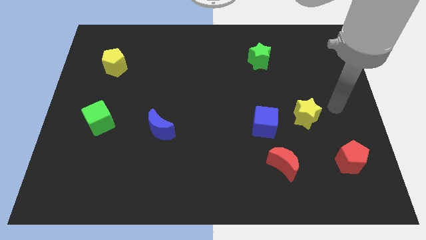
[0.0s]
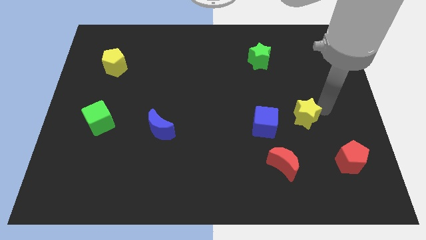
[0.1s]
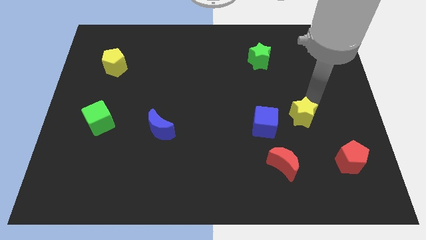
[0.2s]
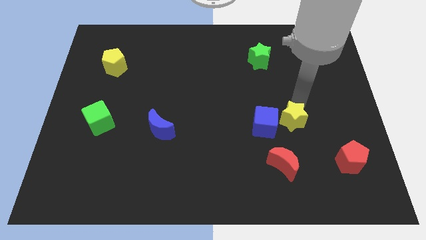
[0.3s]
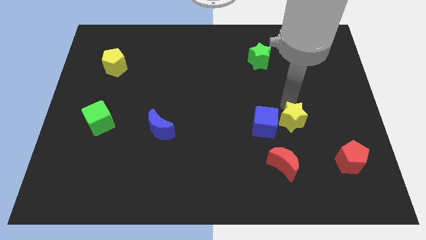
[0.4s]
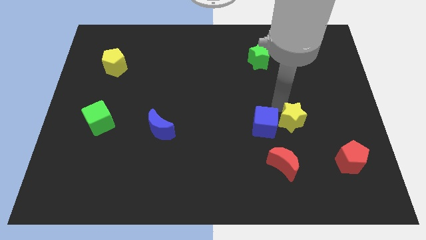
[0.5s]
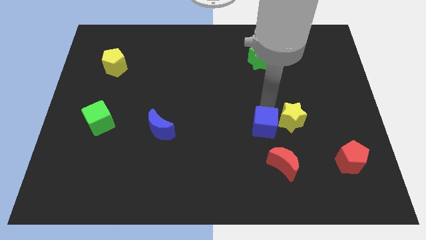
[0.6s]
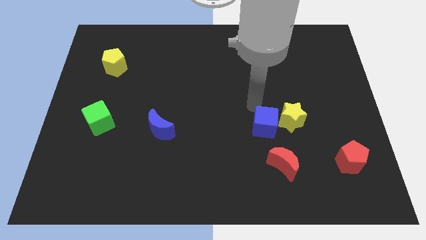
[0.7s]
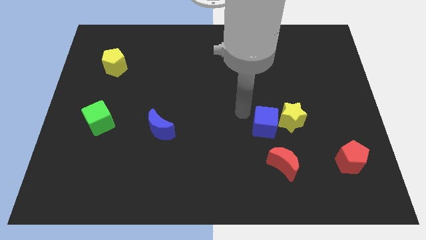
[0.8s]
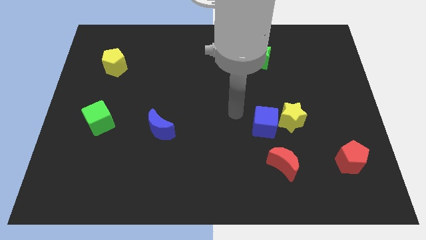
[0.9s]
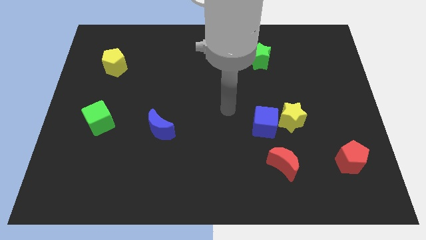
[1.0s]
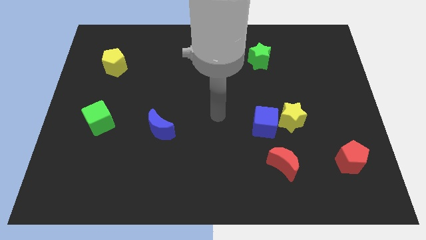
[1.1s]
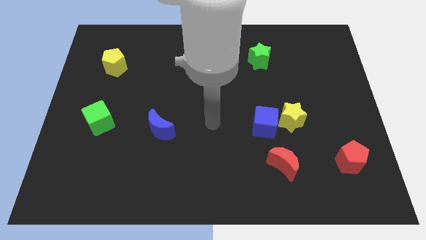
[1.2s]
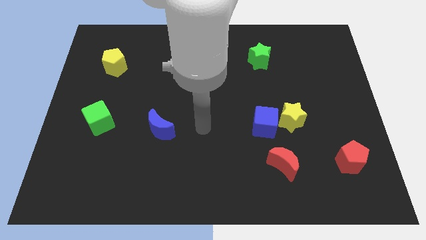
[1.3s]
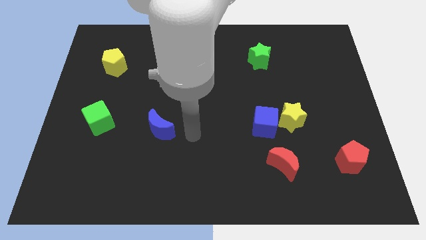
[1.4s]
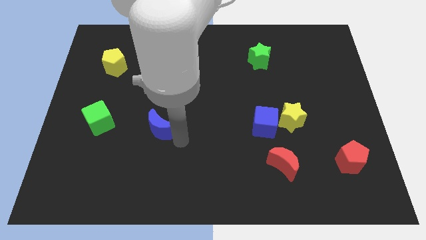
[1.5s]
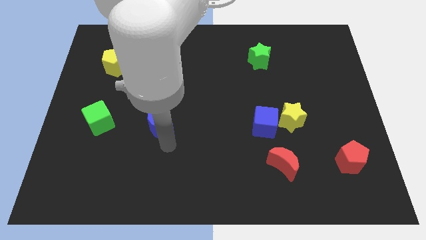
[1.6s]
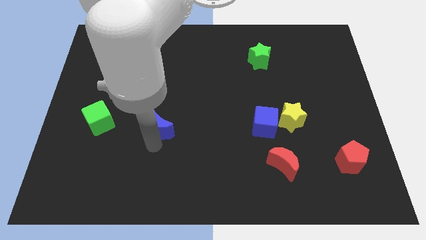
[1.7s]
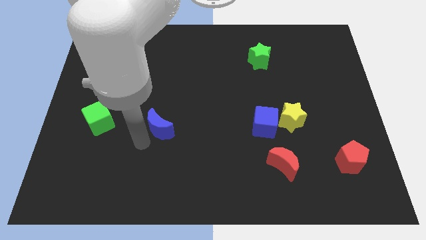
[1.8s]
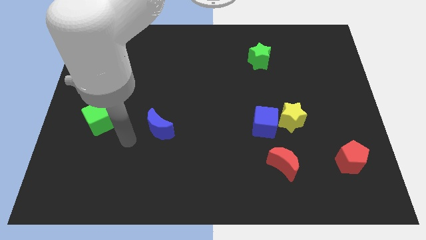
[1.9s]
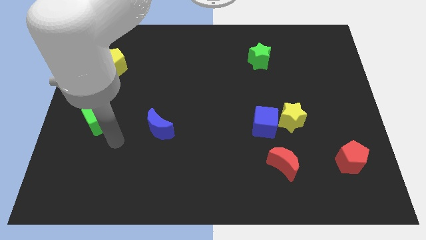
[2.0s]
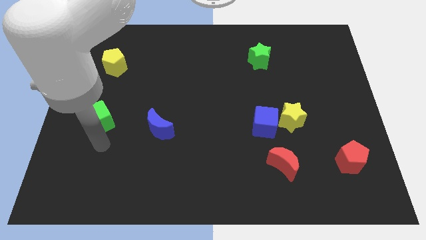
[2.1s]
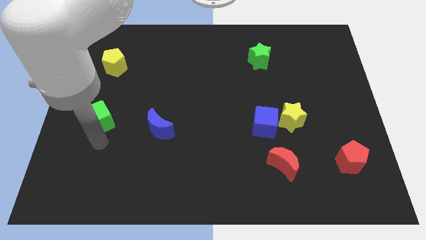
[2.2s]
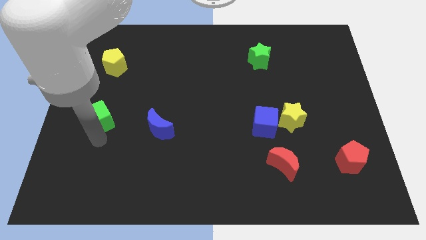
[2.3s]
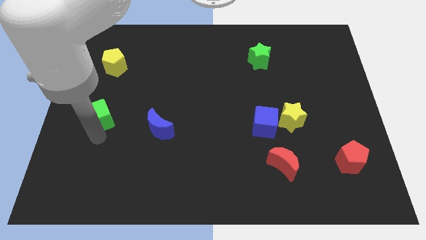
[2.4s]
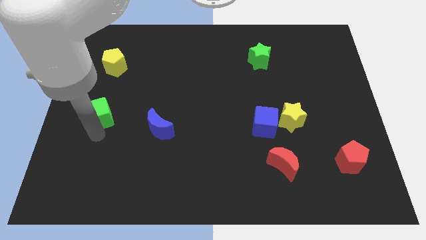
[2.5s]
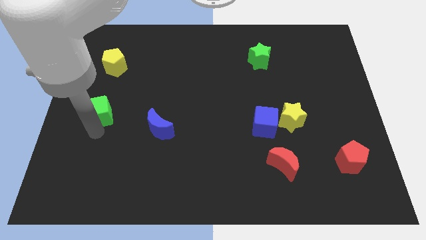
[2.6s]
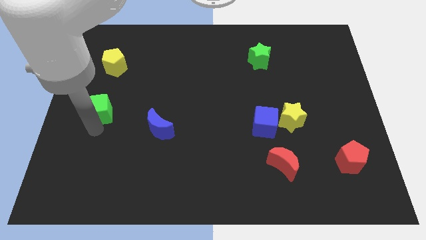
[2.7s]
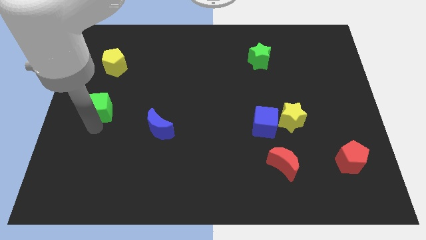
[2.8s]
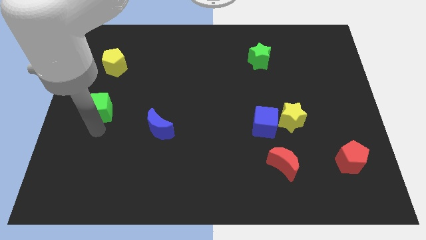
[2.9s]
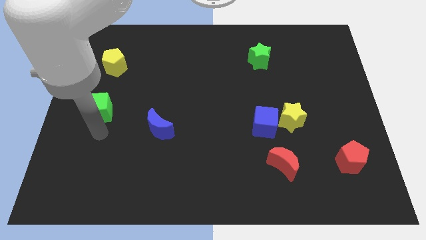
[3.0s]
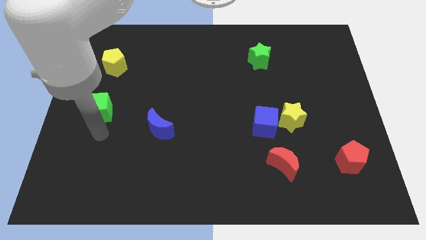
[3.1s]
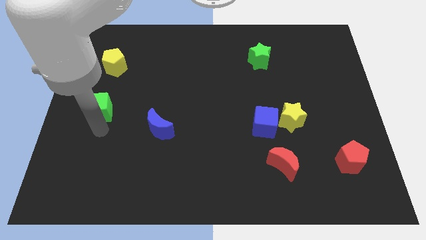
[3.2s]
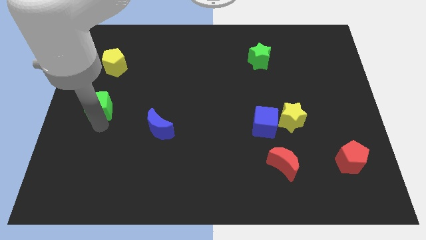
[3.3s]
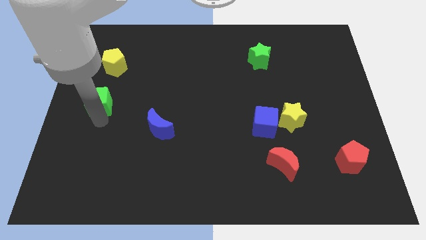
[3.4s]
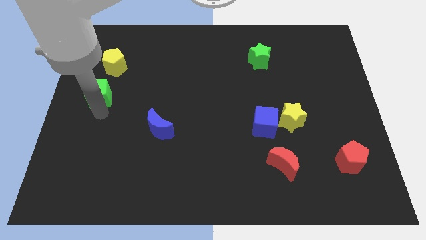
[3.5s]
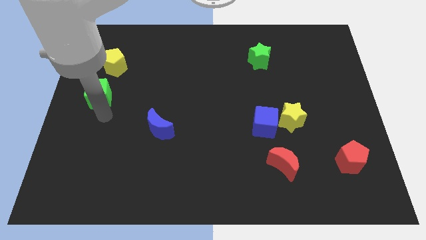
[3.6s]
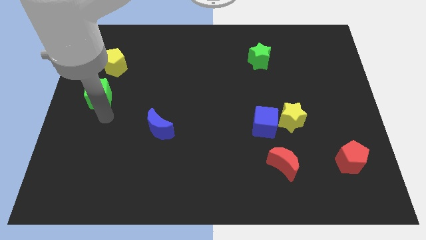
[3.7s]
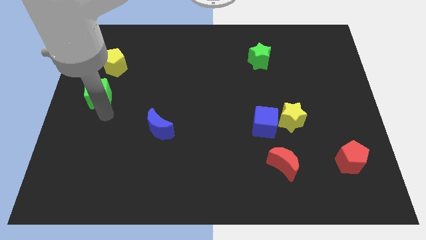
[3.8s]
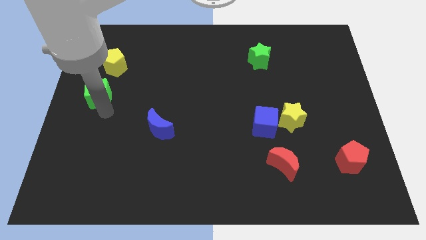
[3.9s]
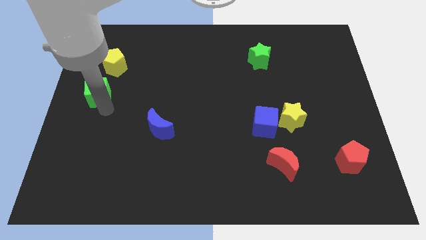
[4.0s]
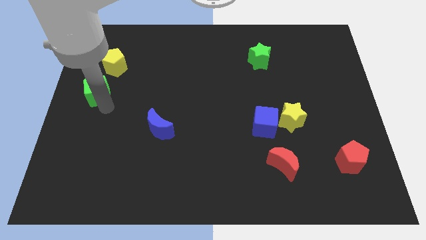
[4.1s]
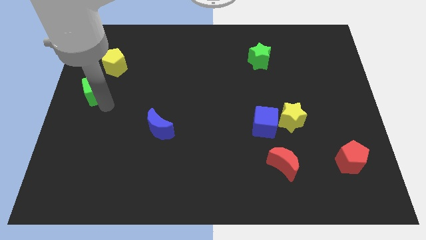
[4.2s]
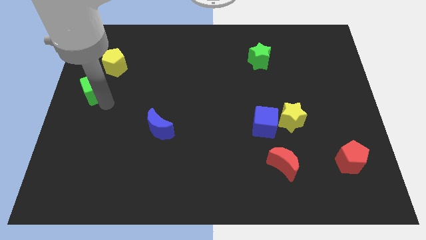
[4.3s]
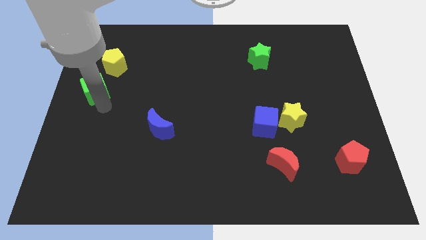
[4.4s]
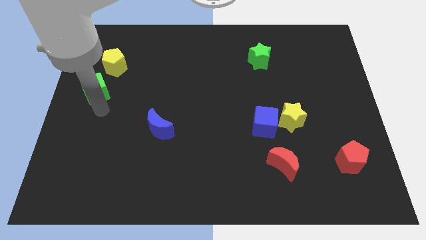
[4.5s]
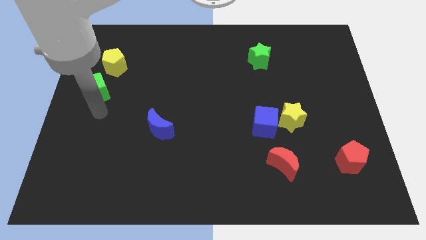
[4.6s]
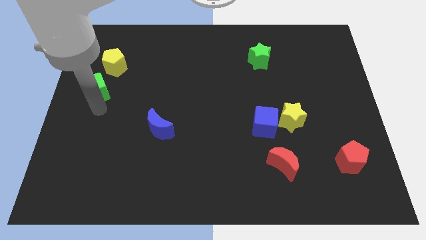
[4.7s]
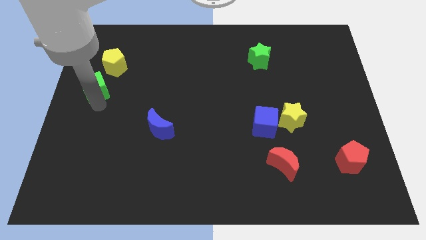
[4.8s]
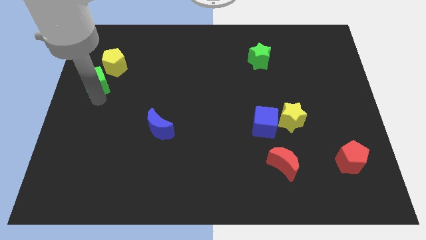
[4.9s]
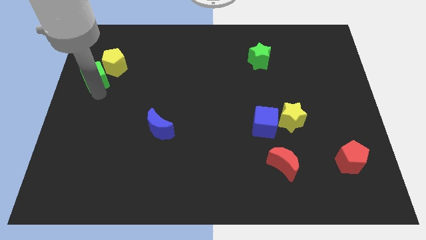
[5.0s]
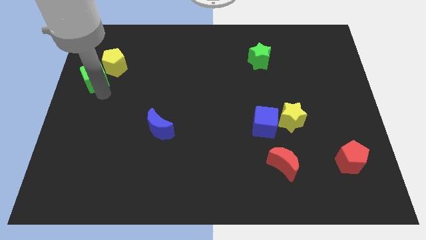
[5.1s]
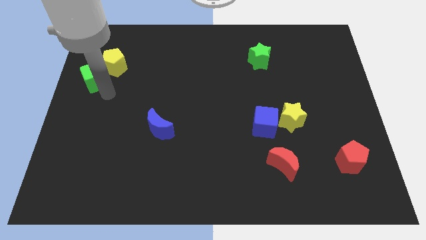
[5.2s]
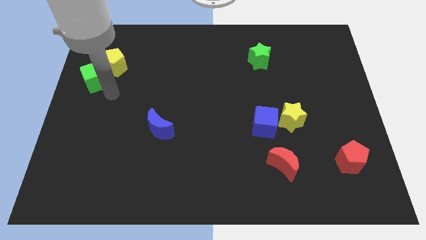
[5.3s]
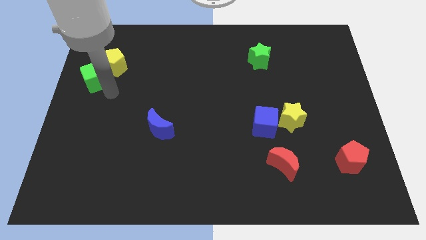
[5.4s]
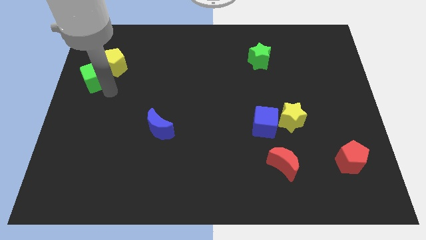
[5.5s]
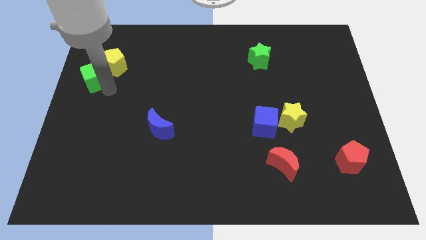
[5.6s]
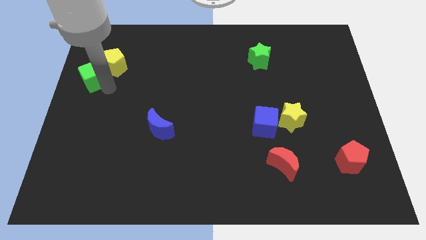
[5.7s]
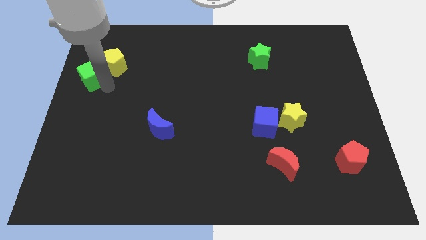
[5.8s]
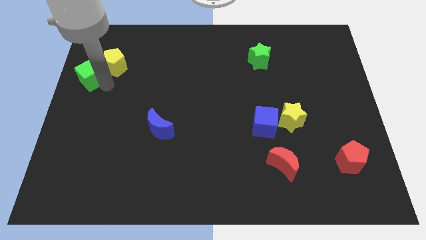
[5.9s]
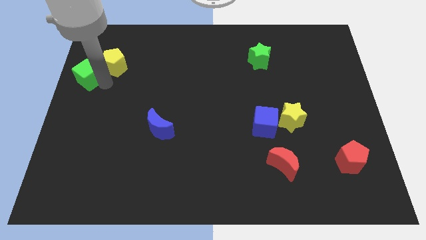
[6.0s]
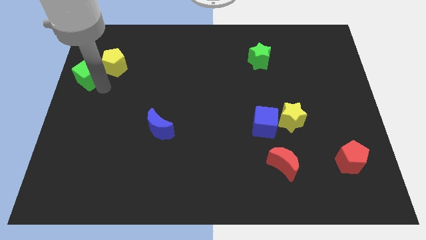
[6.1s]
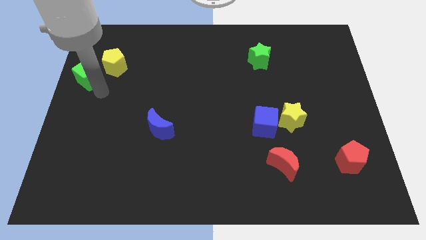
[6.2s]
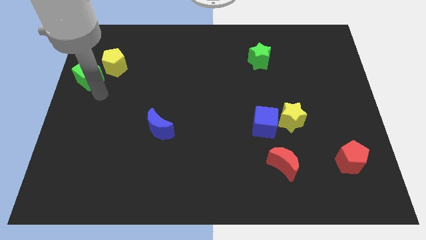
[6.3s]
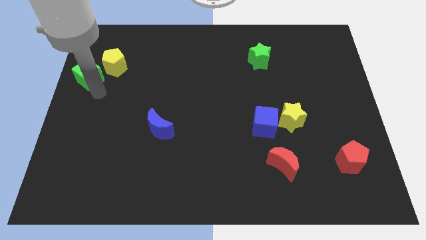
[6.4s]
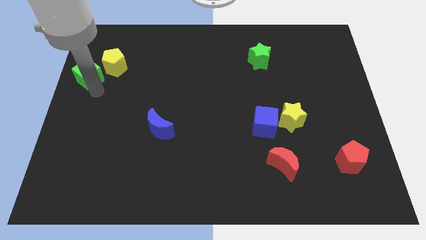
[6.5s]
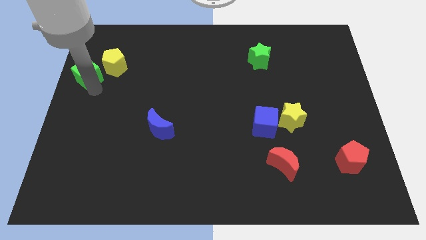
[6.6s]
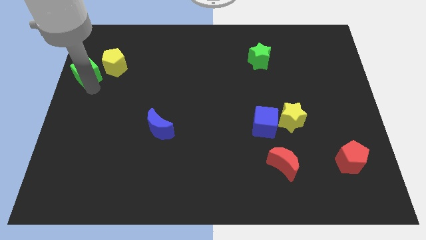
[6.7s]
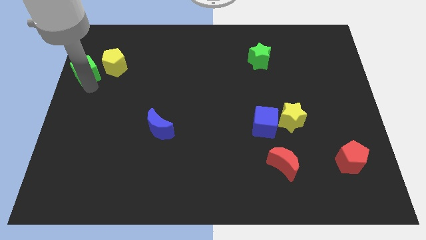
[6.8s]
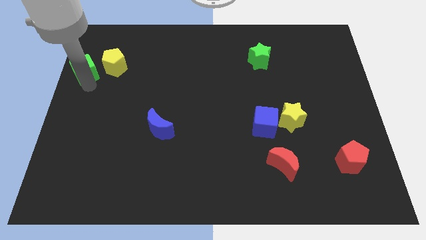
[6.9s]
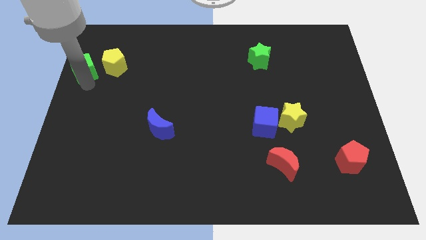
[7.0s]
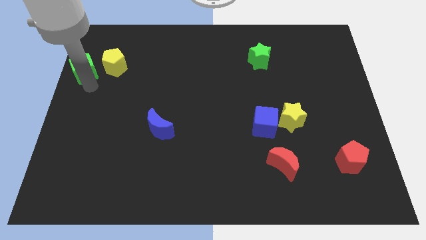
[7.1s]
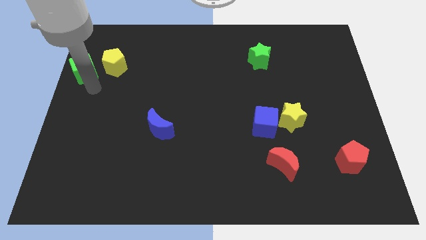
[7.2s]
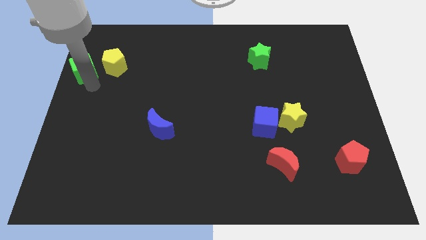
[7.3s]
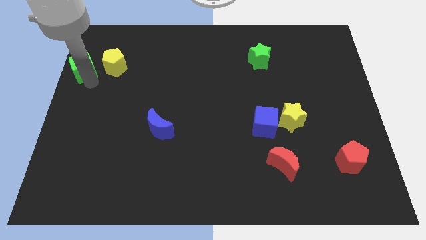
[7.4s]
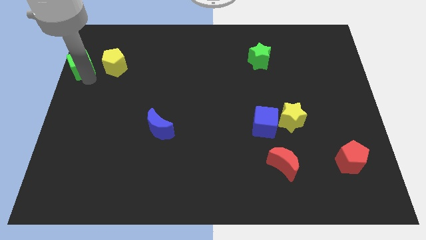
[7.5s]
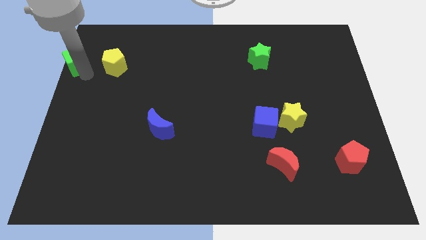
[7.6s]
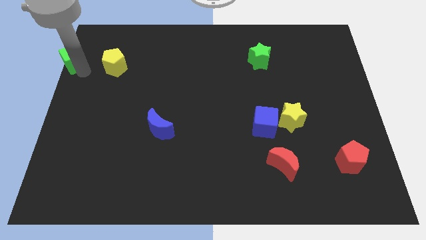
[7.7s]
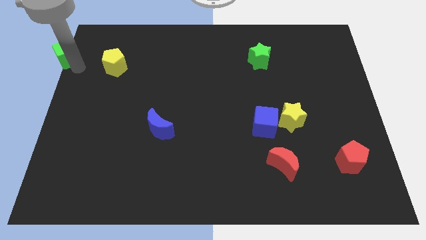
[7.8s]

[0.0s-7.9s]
put the green cube to the upper left corner
